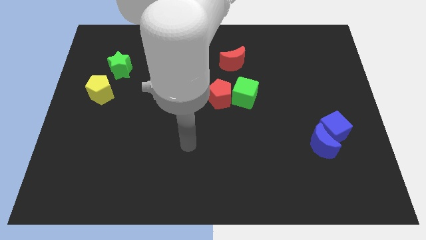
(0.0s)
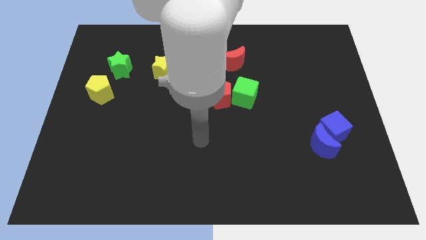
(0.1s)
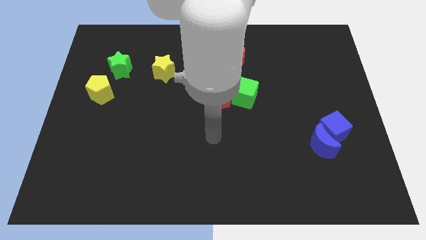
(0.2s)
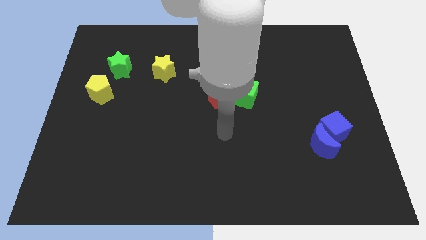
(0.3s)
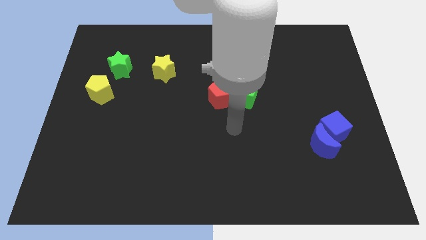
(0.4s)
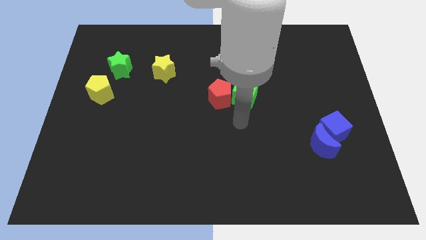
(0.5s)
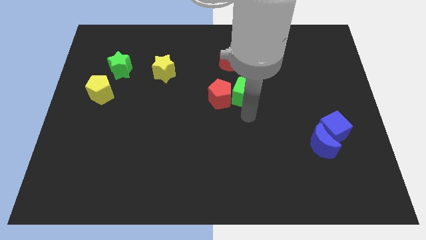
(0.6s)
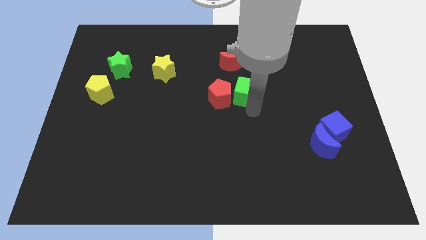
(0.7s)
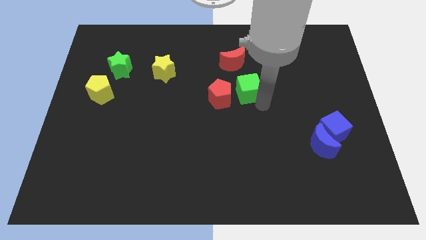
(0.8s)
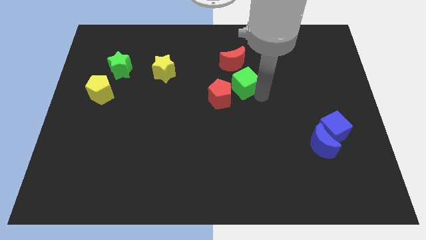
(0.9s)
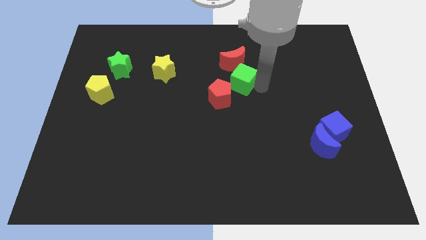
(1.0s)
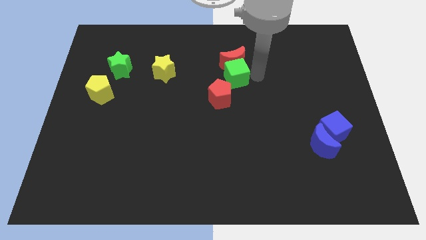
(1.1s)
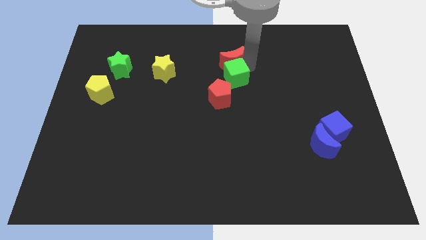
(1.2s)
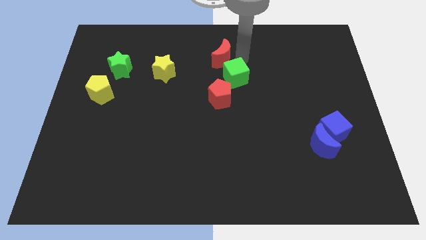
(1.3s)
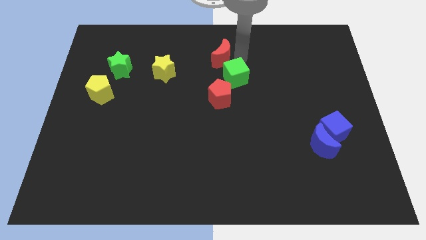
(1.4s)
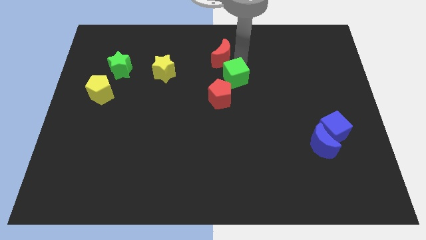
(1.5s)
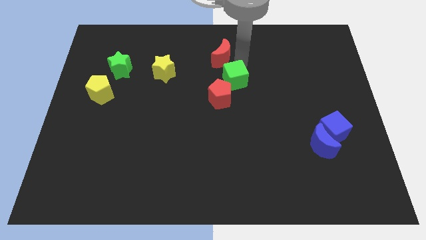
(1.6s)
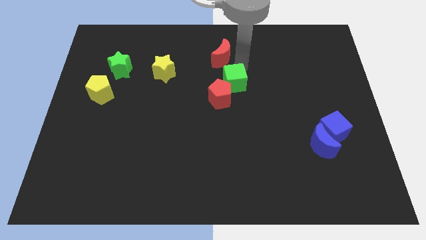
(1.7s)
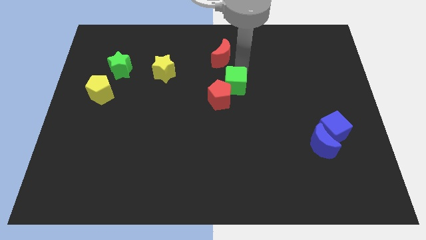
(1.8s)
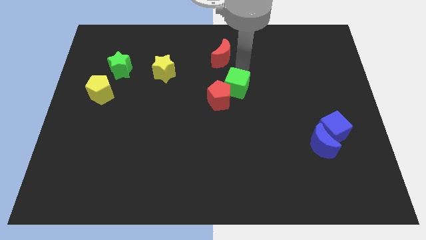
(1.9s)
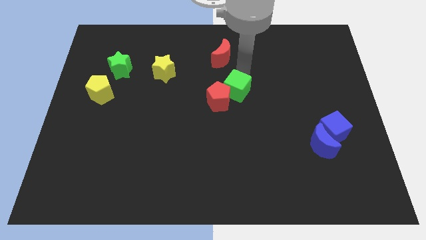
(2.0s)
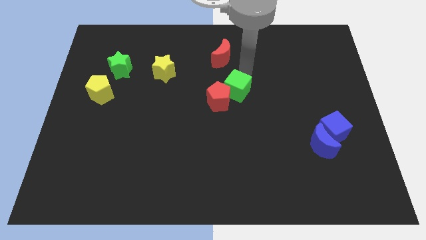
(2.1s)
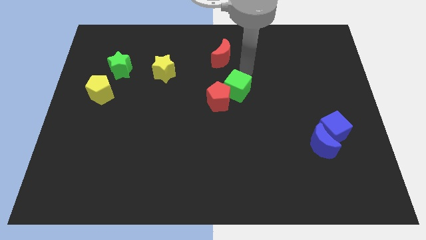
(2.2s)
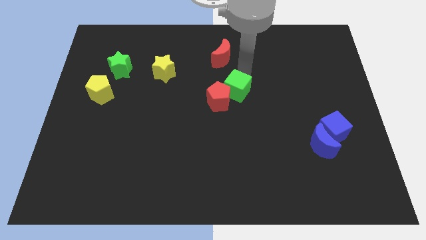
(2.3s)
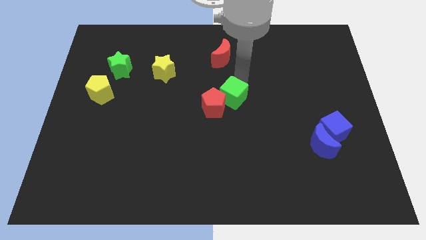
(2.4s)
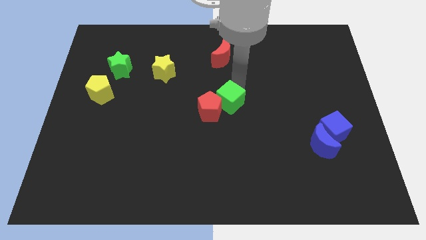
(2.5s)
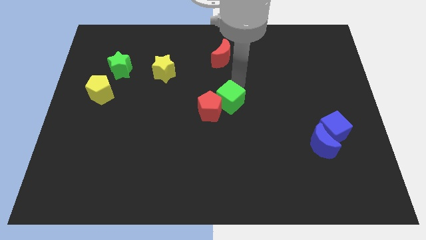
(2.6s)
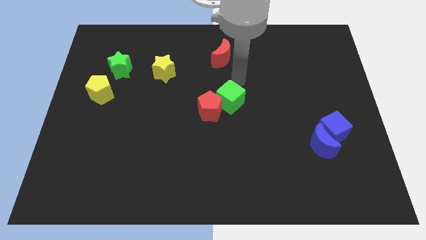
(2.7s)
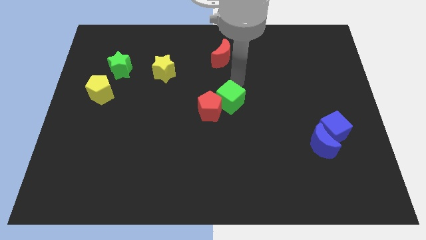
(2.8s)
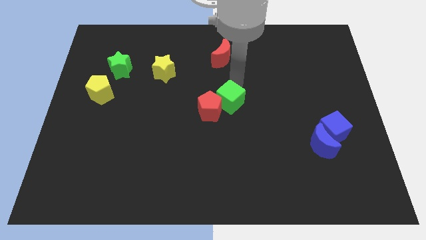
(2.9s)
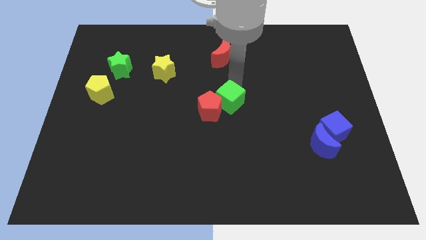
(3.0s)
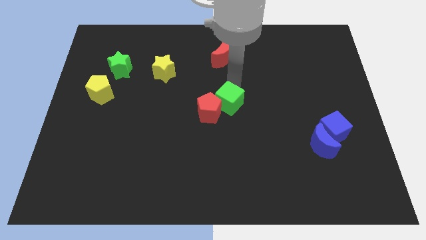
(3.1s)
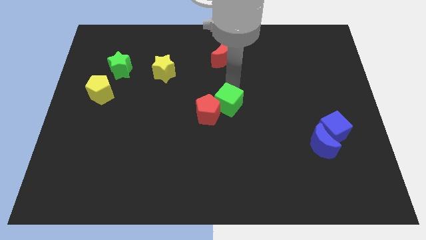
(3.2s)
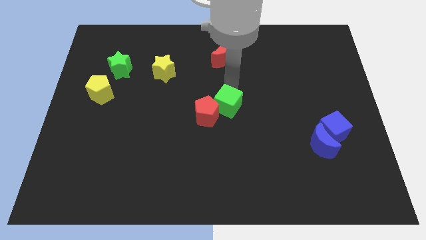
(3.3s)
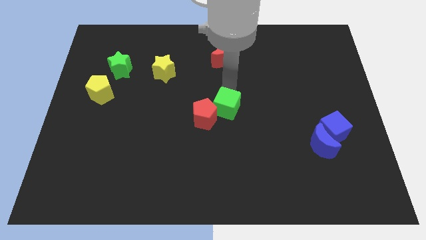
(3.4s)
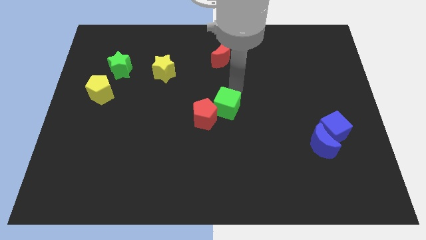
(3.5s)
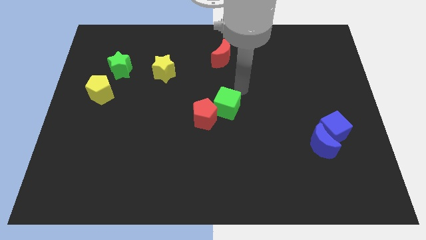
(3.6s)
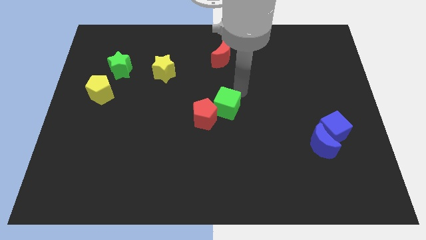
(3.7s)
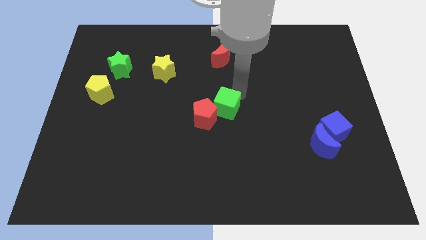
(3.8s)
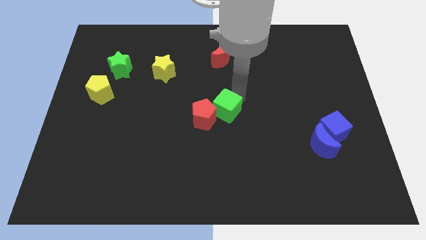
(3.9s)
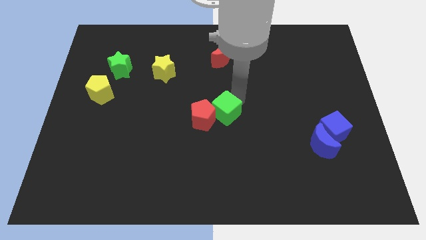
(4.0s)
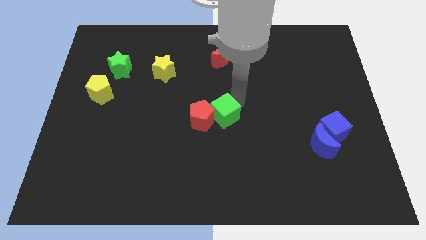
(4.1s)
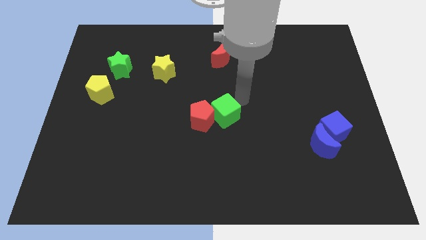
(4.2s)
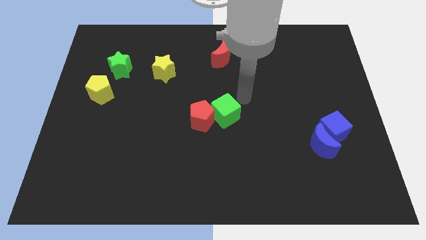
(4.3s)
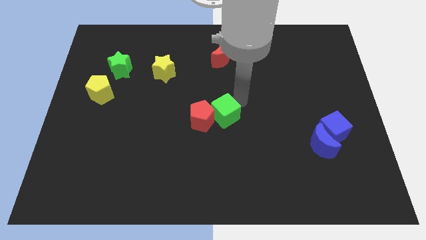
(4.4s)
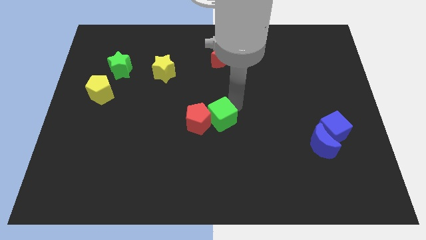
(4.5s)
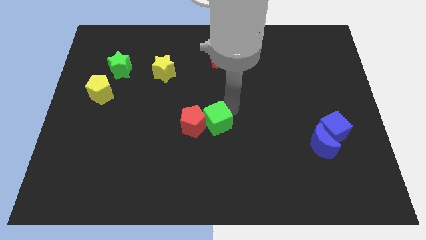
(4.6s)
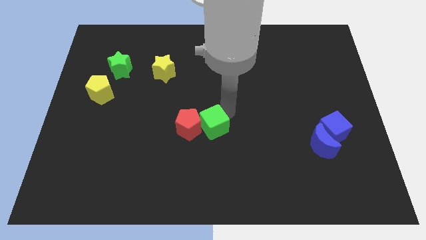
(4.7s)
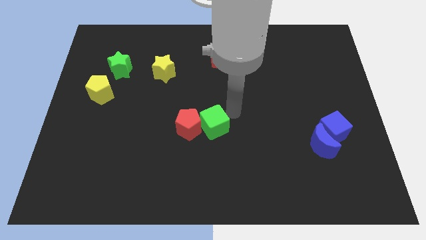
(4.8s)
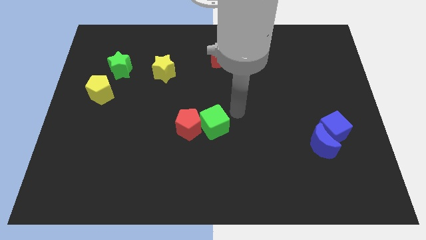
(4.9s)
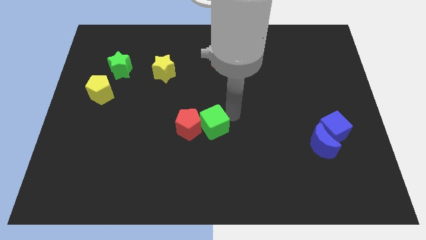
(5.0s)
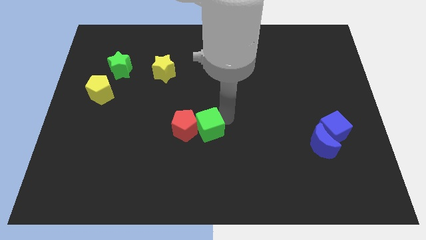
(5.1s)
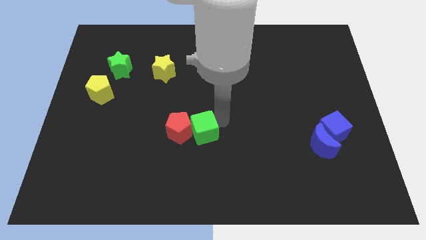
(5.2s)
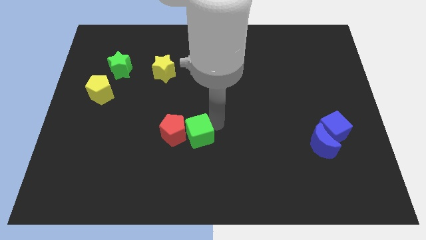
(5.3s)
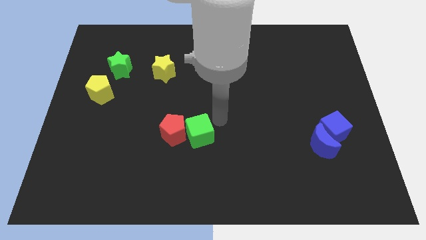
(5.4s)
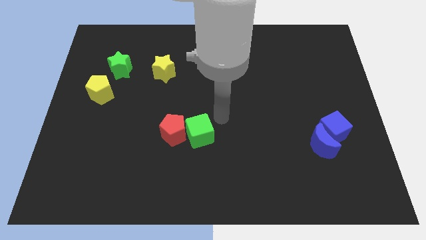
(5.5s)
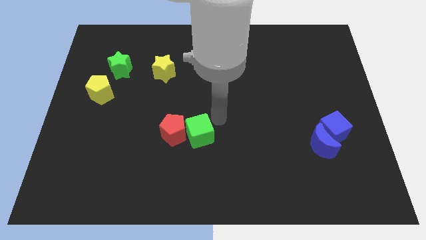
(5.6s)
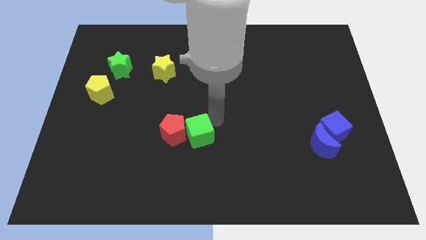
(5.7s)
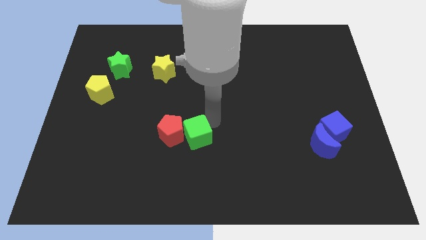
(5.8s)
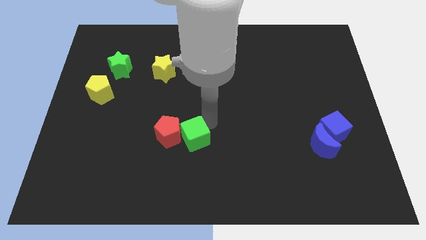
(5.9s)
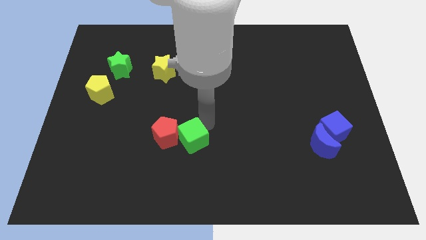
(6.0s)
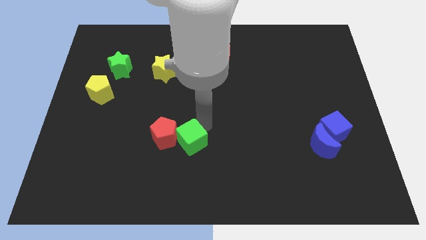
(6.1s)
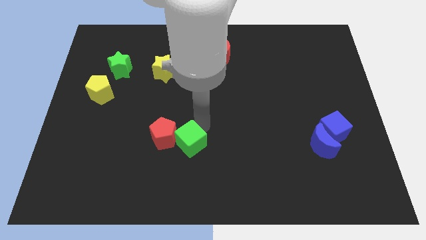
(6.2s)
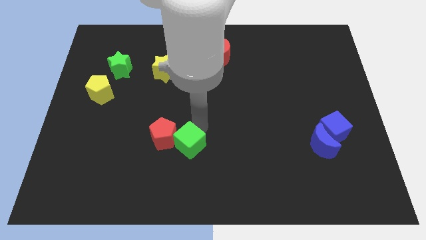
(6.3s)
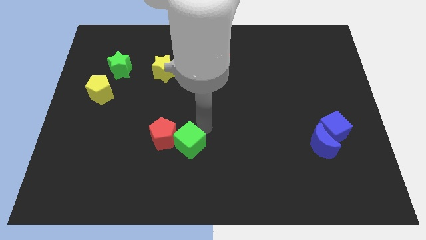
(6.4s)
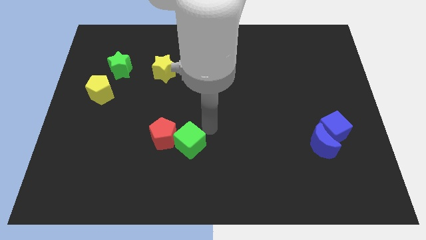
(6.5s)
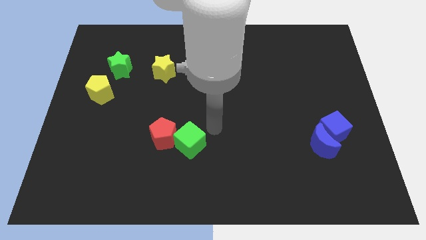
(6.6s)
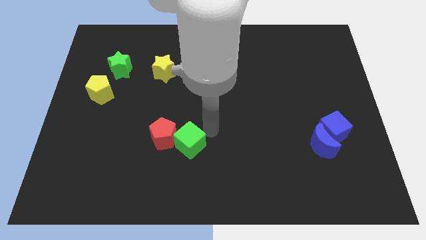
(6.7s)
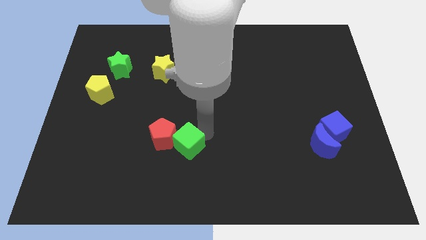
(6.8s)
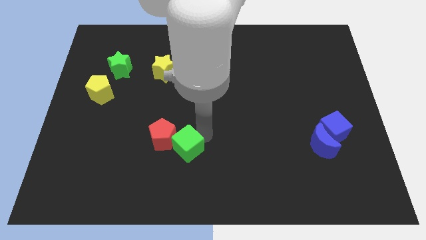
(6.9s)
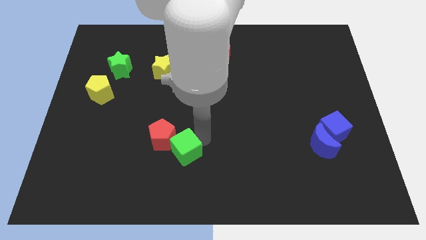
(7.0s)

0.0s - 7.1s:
move the green cube down and then to the left

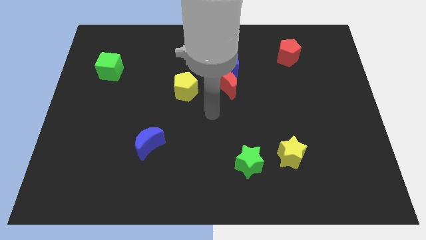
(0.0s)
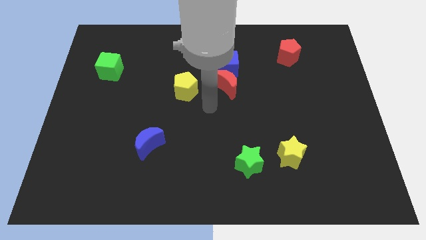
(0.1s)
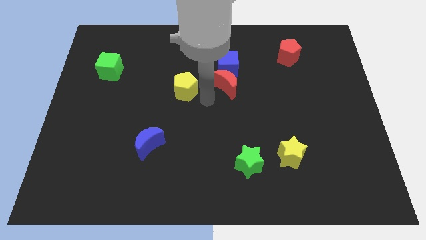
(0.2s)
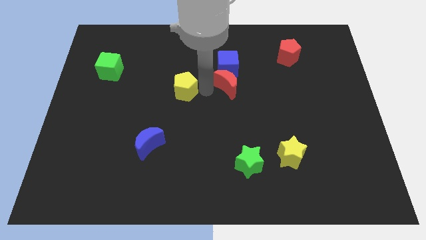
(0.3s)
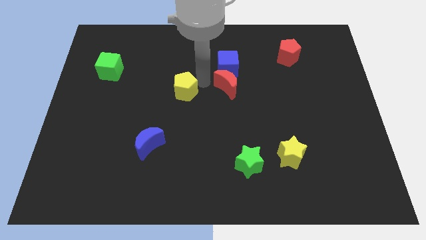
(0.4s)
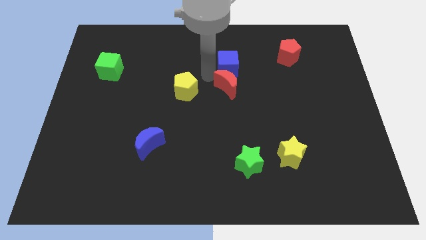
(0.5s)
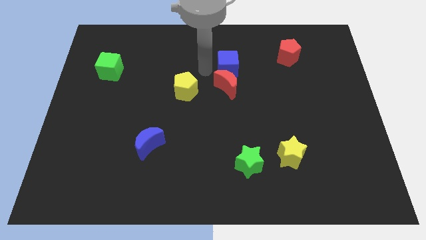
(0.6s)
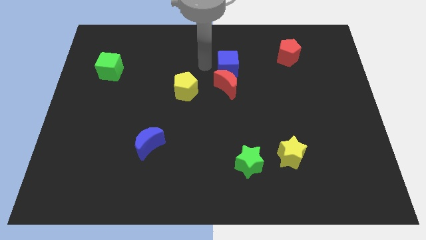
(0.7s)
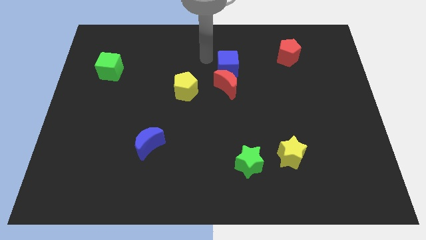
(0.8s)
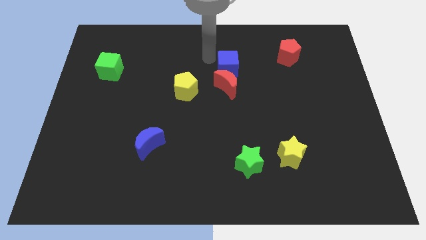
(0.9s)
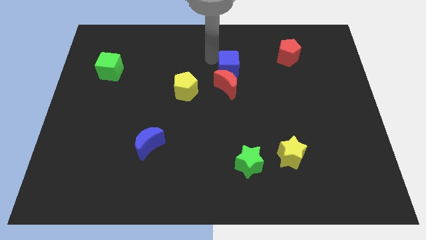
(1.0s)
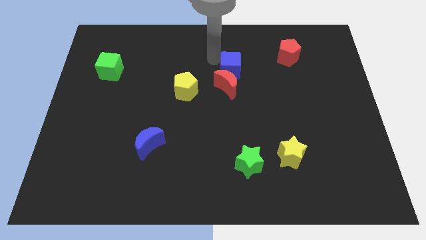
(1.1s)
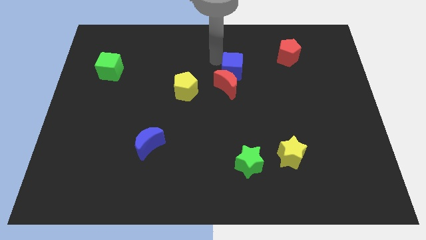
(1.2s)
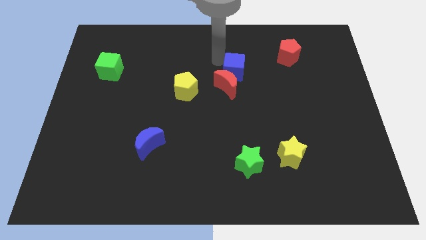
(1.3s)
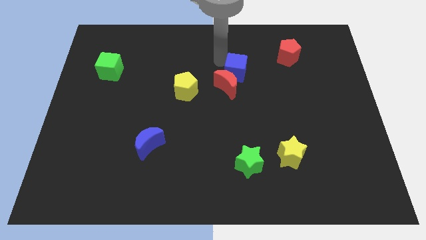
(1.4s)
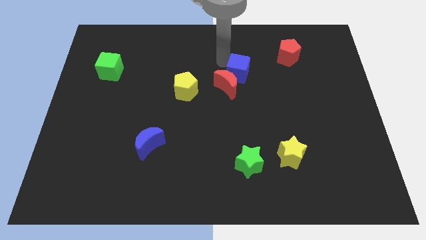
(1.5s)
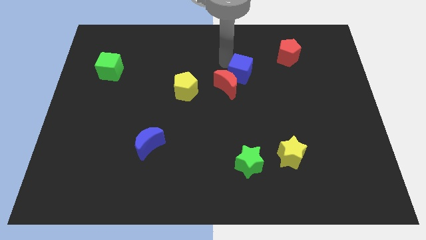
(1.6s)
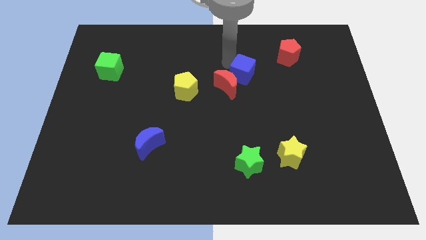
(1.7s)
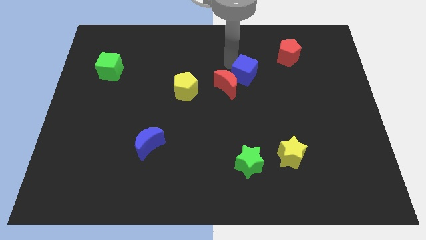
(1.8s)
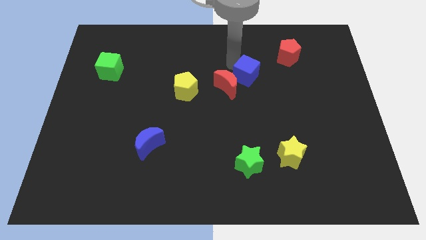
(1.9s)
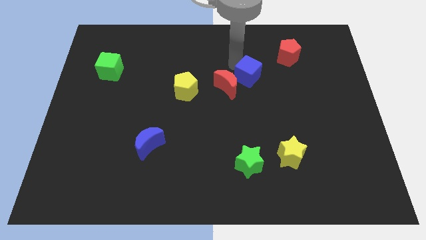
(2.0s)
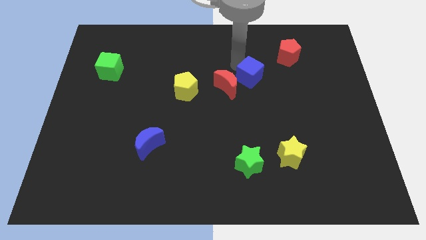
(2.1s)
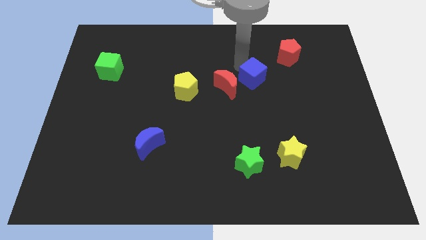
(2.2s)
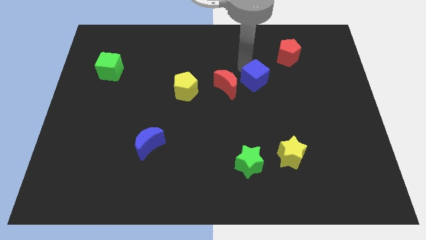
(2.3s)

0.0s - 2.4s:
slightly move the blue cube down and to the right diagonally
